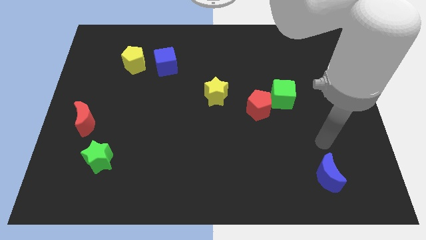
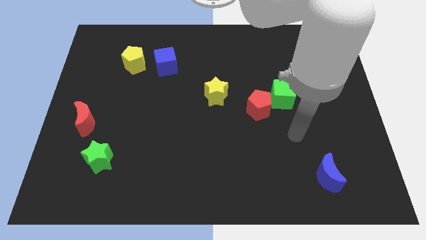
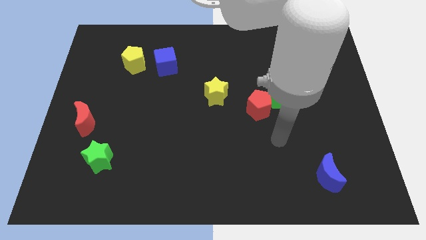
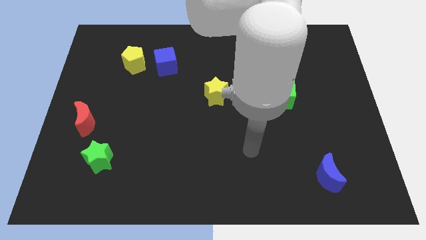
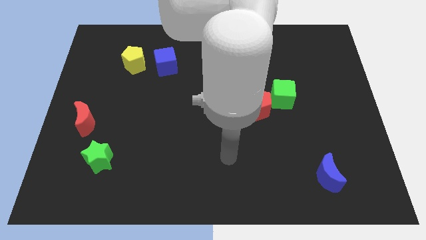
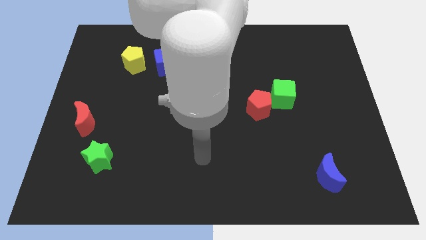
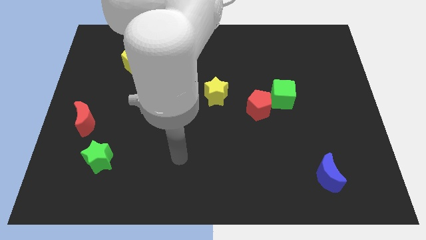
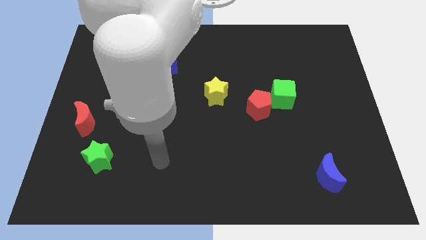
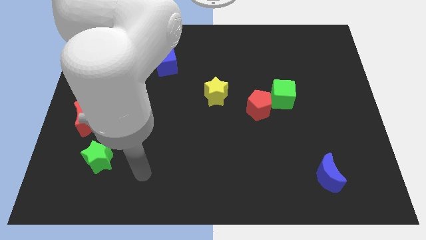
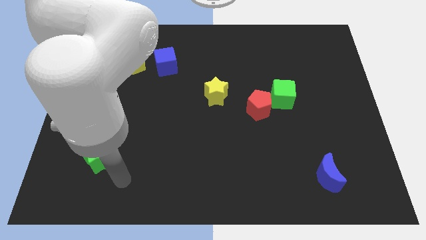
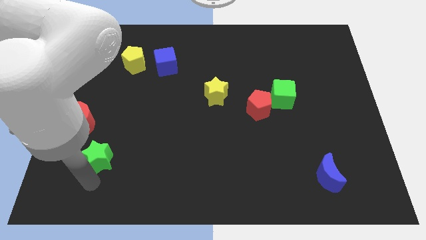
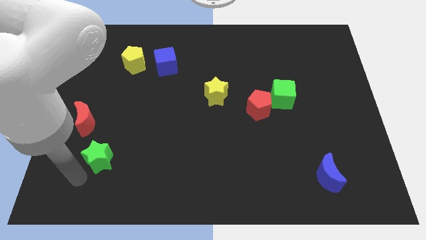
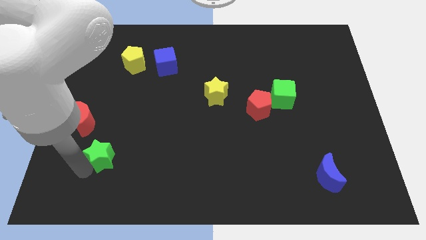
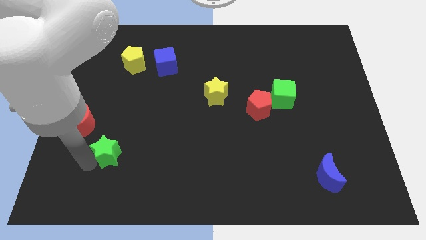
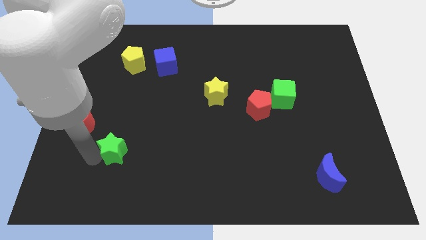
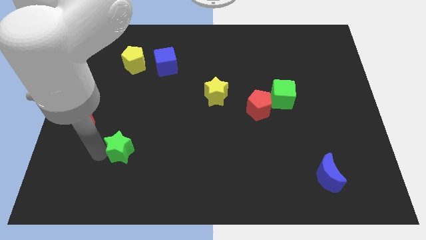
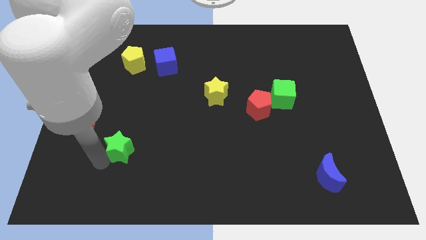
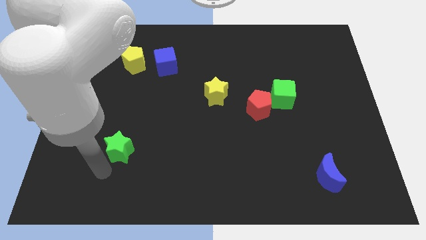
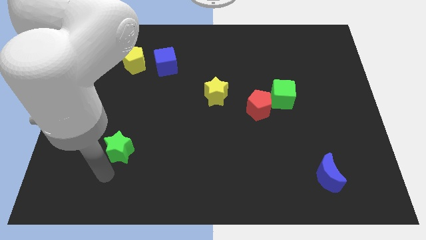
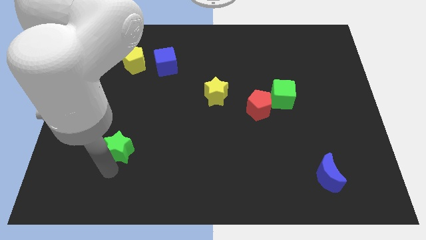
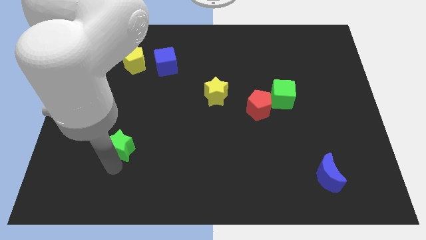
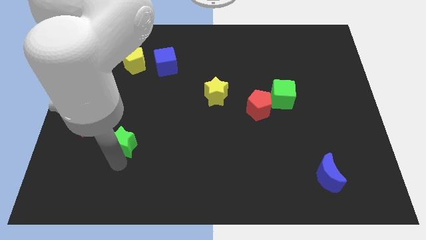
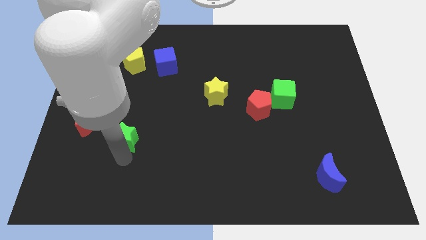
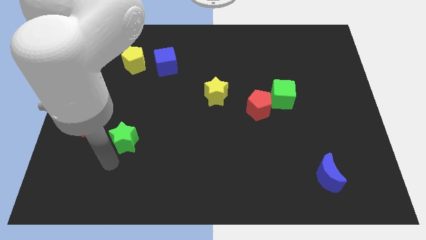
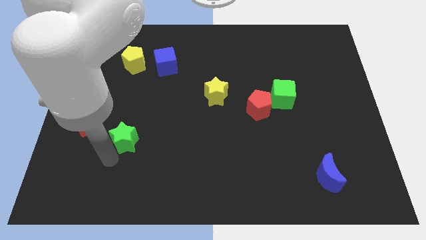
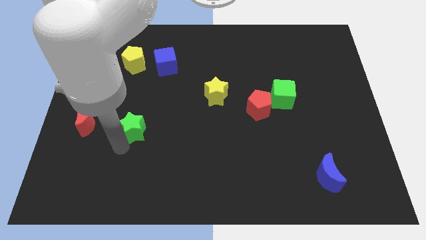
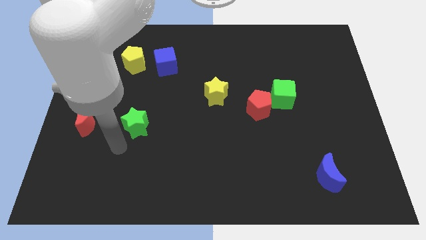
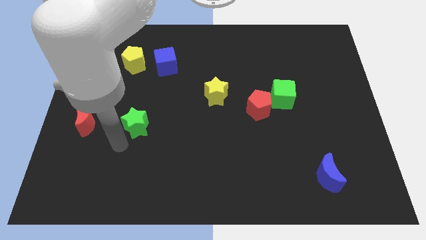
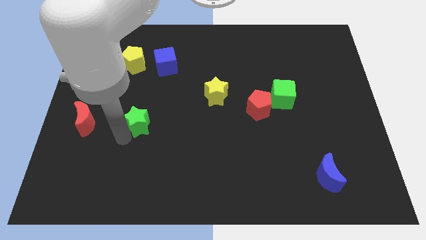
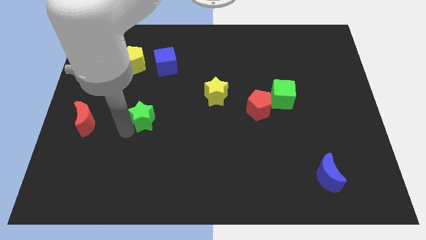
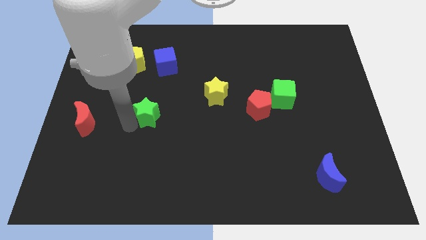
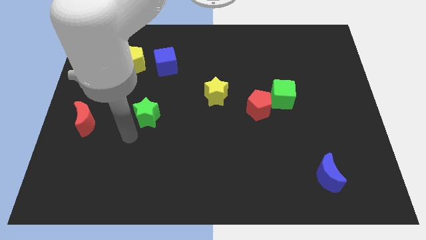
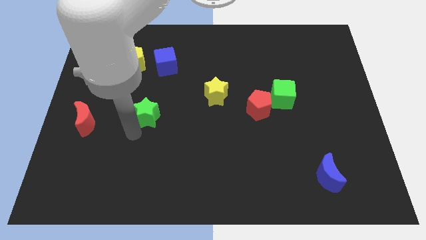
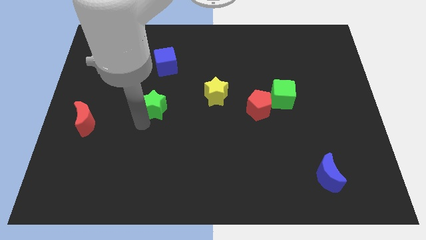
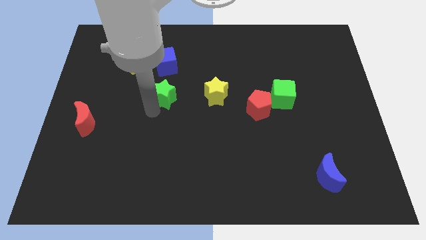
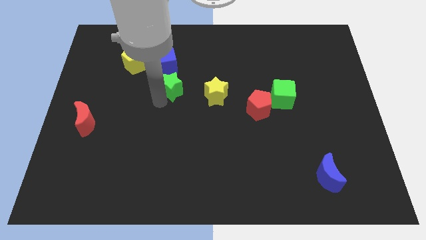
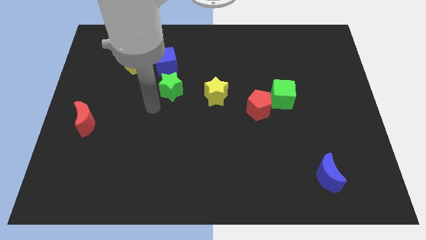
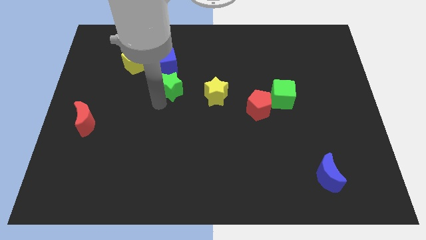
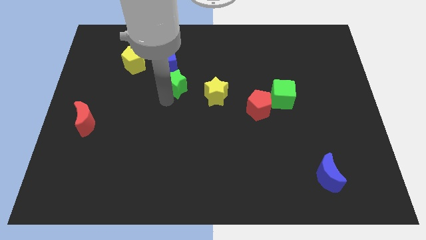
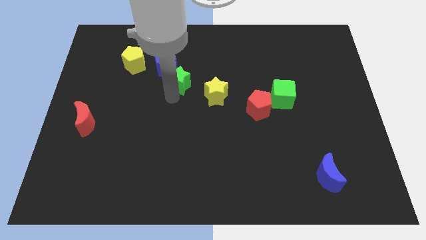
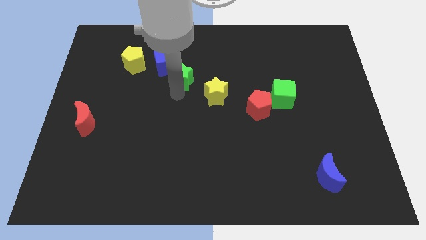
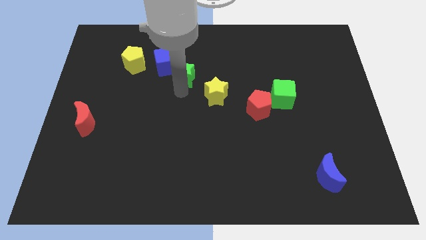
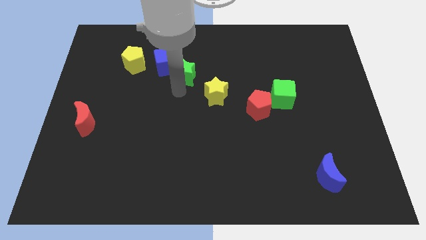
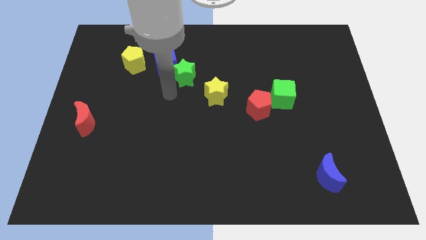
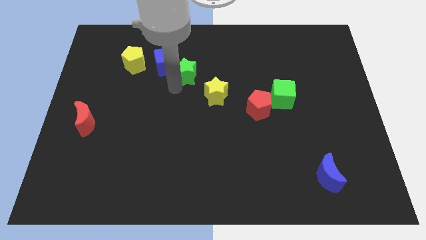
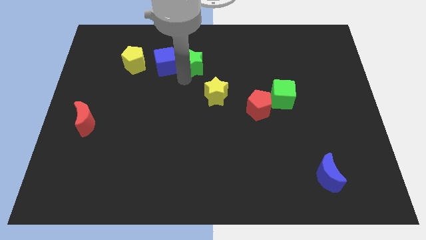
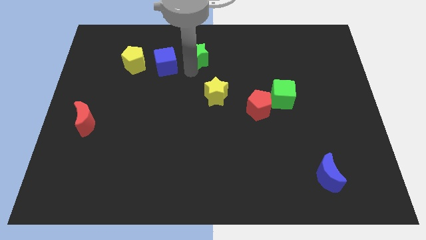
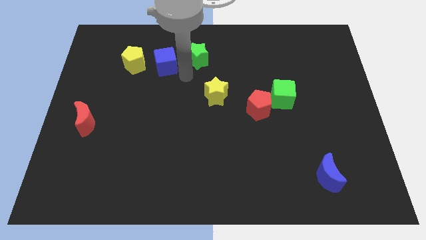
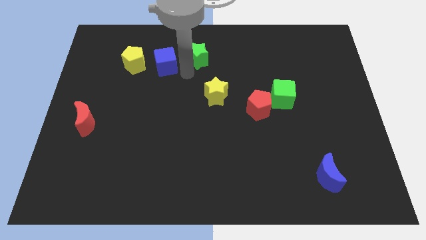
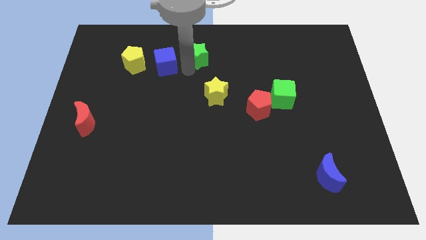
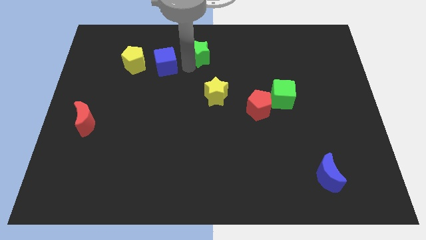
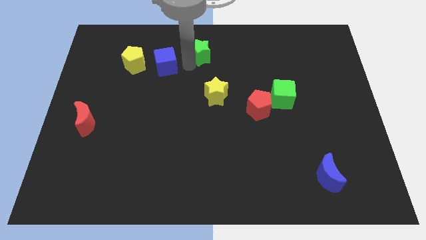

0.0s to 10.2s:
slide the green star to the top

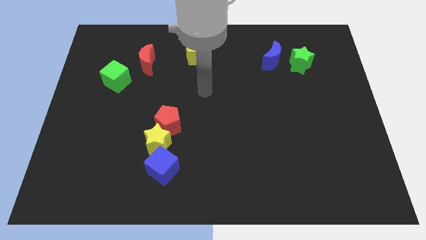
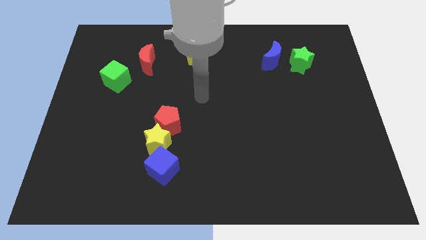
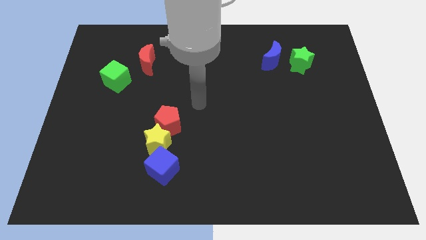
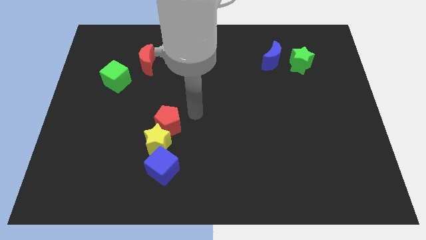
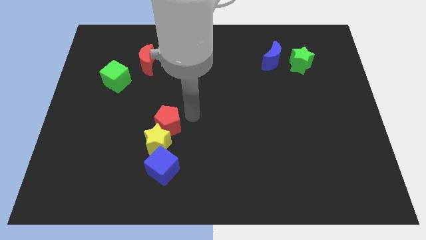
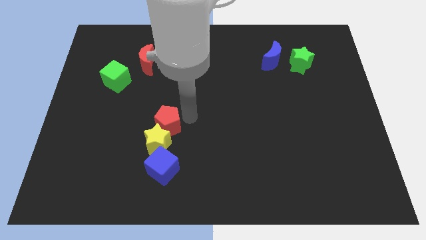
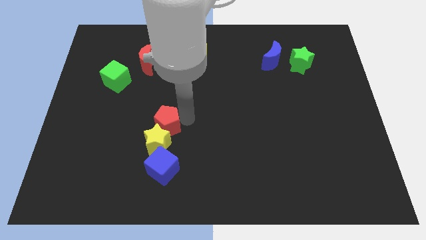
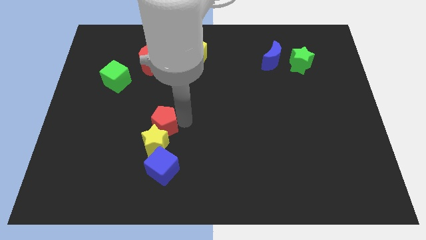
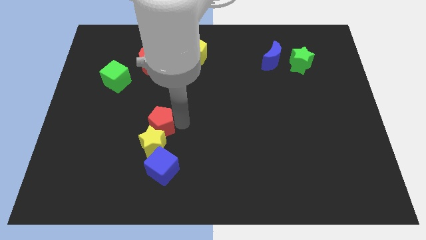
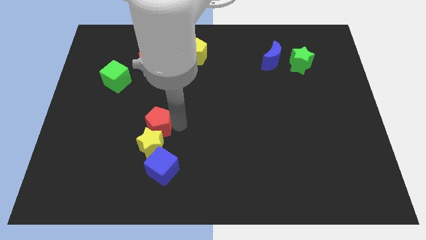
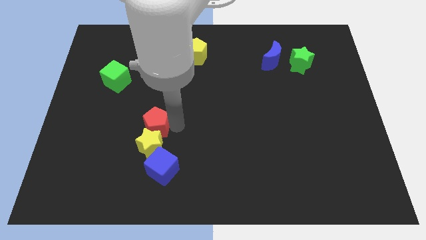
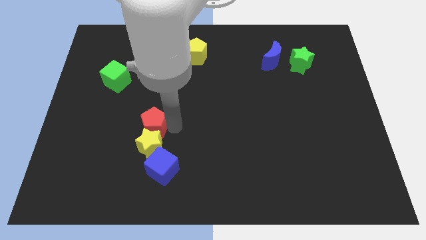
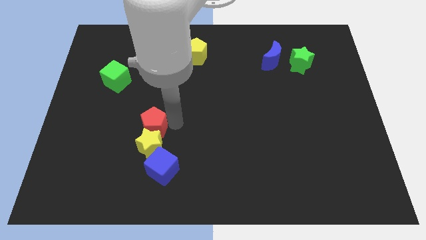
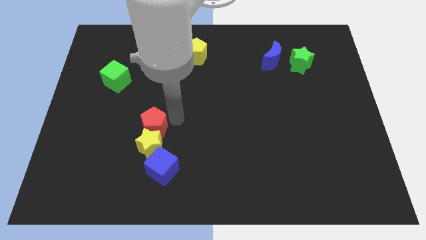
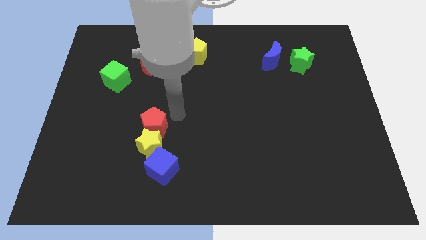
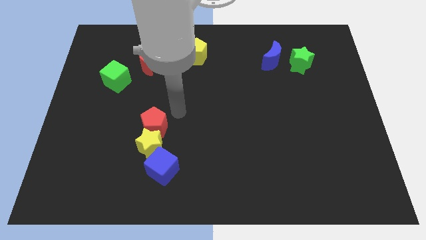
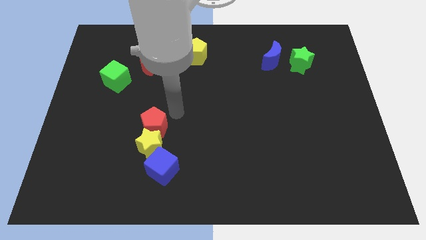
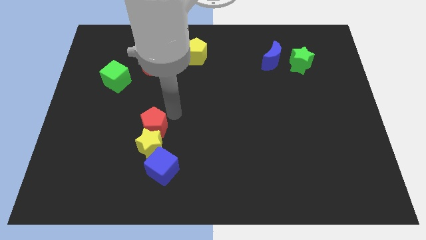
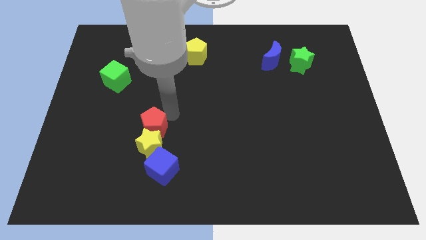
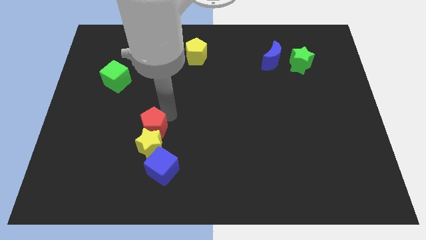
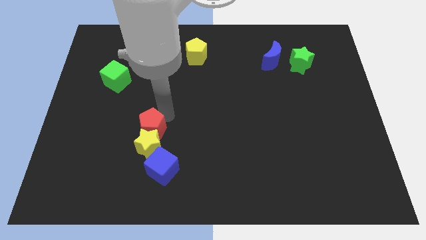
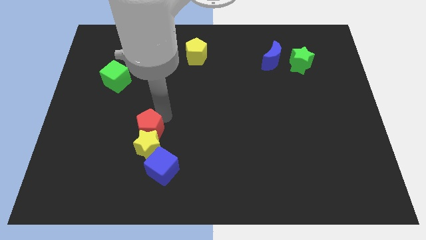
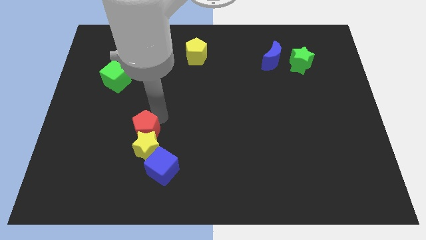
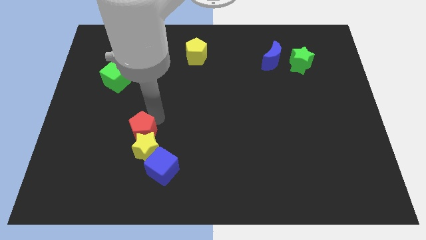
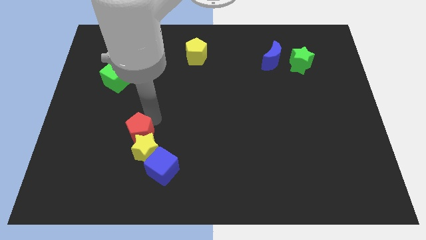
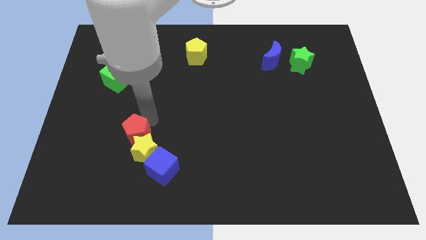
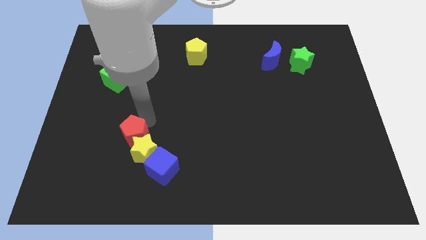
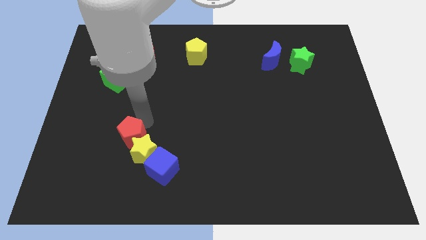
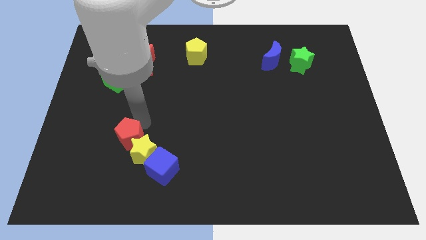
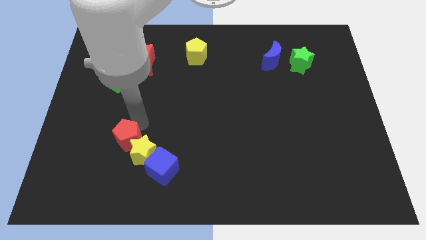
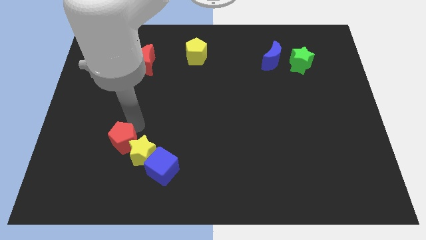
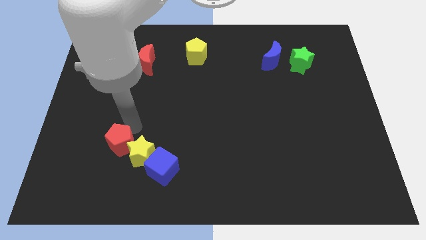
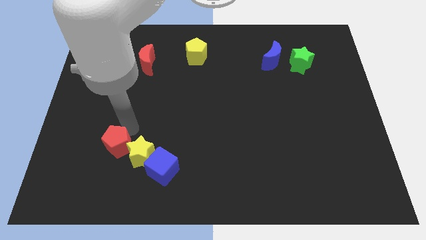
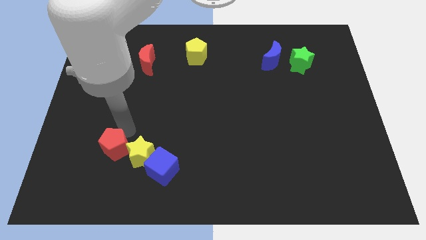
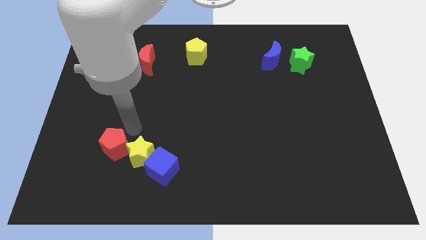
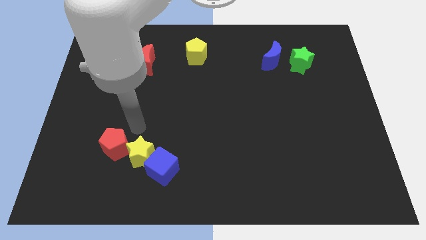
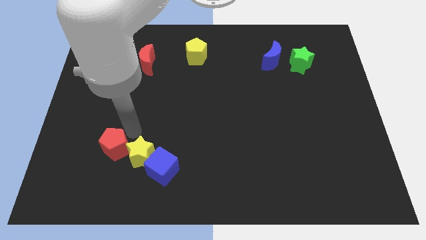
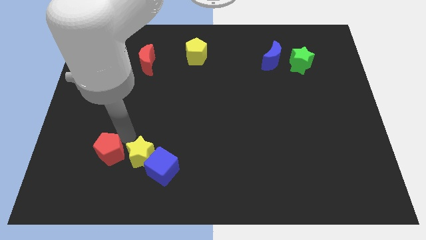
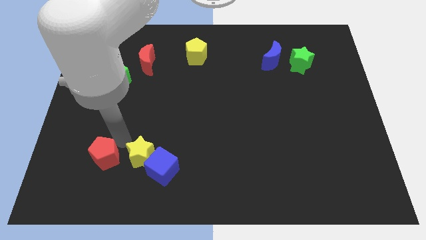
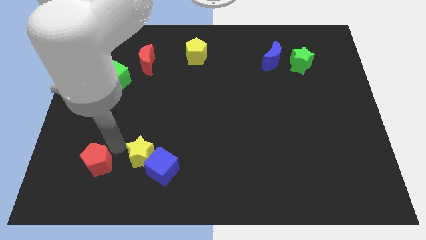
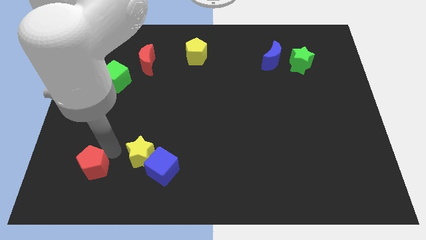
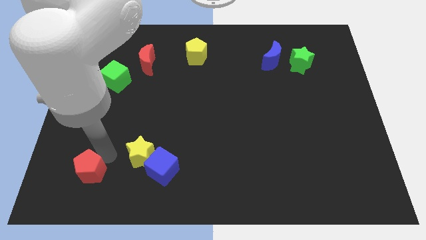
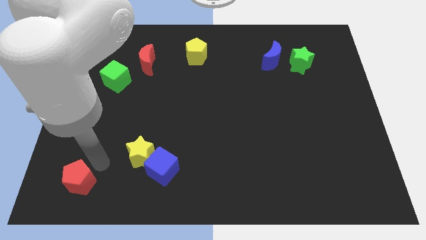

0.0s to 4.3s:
put the red pentagon to the bottom left of the board
